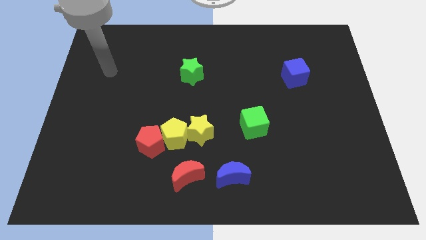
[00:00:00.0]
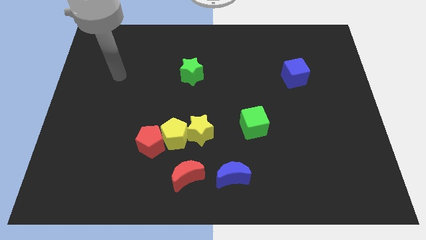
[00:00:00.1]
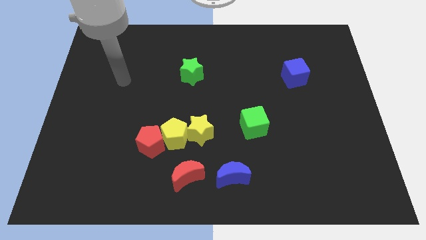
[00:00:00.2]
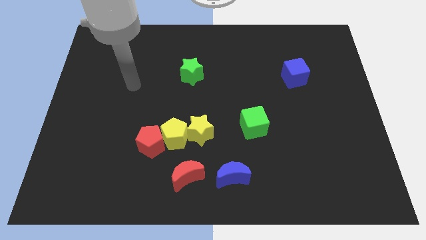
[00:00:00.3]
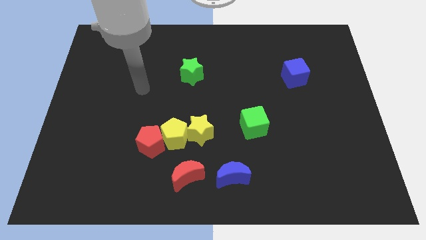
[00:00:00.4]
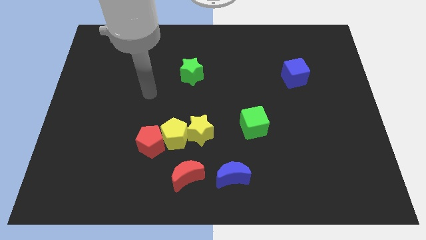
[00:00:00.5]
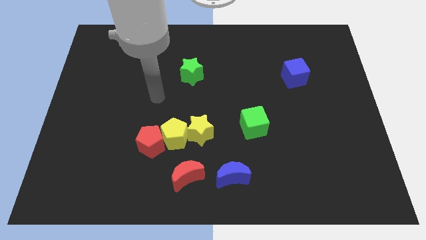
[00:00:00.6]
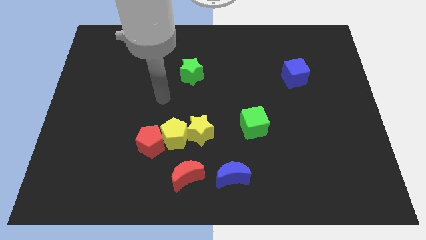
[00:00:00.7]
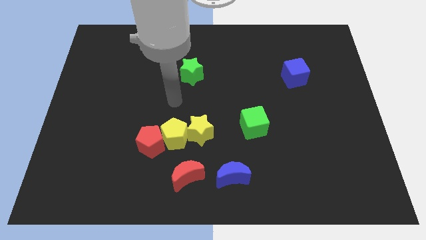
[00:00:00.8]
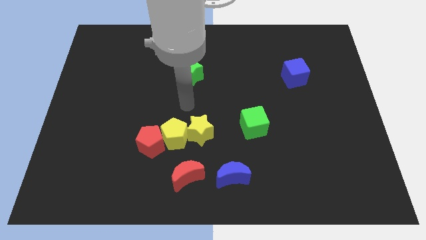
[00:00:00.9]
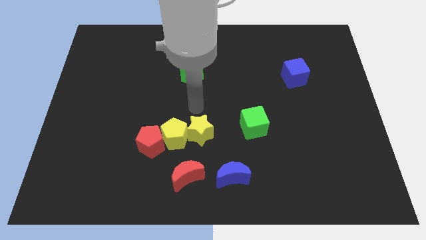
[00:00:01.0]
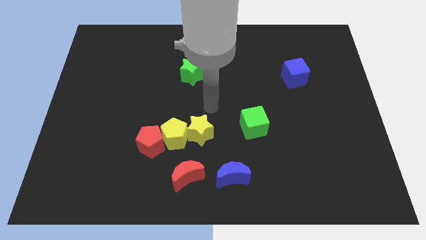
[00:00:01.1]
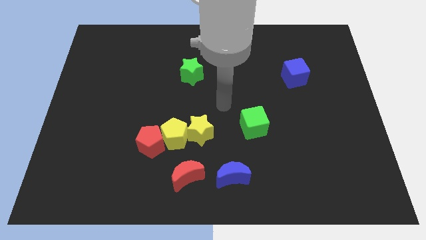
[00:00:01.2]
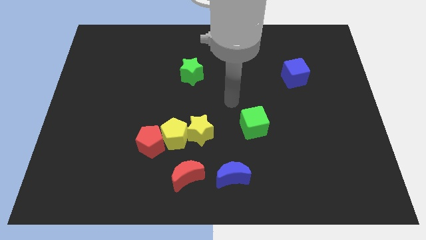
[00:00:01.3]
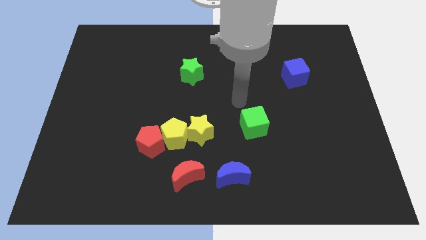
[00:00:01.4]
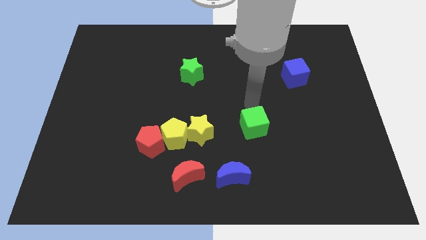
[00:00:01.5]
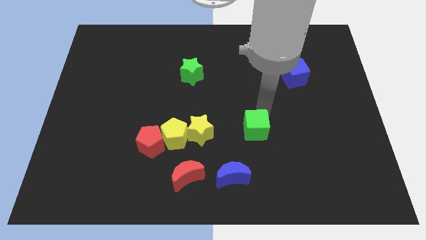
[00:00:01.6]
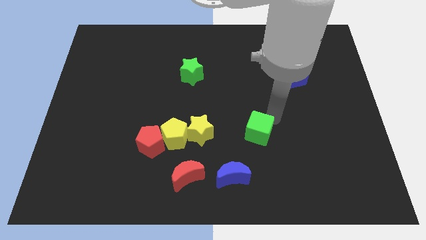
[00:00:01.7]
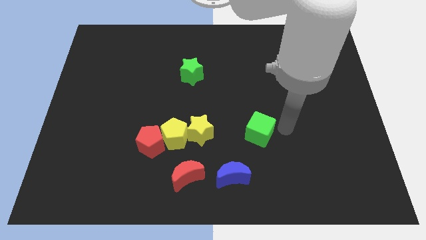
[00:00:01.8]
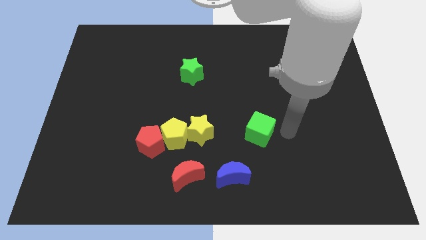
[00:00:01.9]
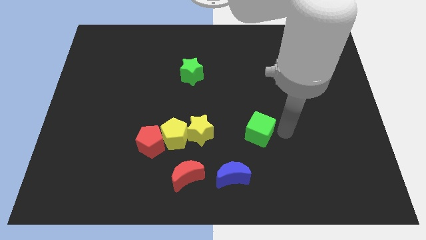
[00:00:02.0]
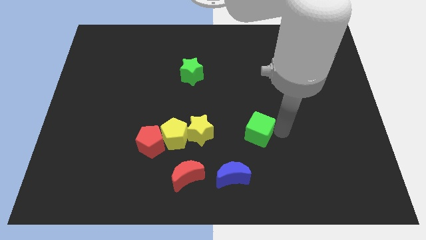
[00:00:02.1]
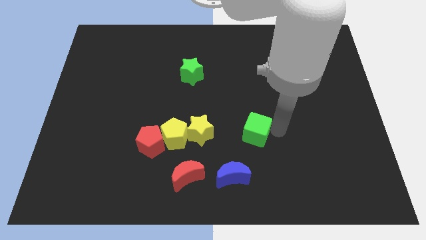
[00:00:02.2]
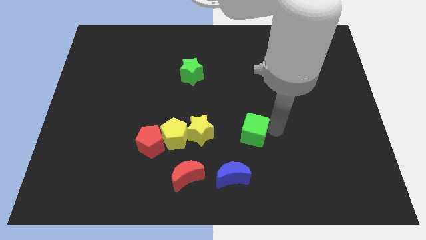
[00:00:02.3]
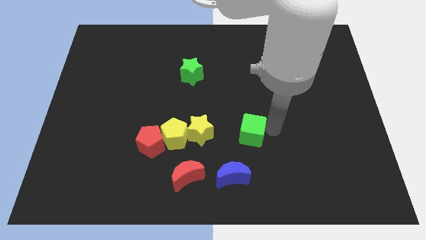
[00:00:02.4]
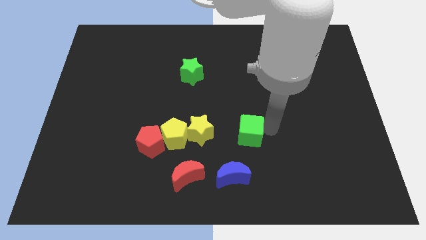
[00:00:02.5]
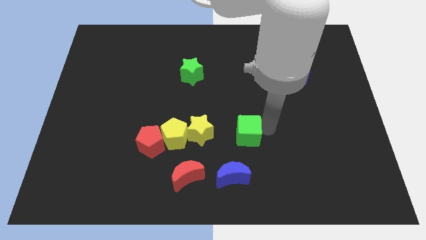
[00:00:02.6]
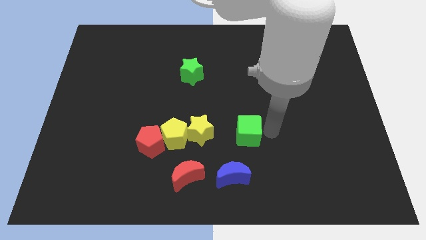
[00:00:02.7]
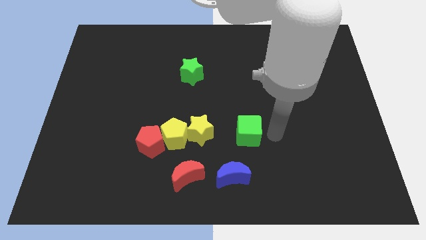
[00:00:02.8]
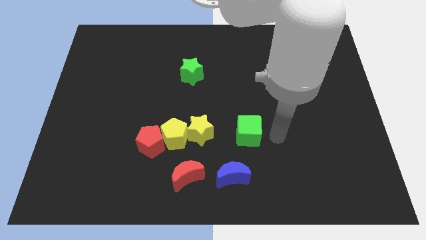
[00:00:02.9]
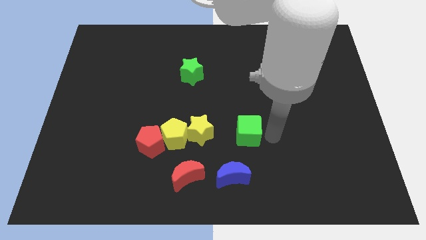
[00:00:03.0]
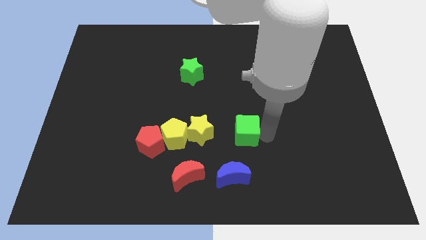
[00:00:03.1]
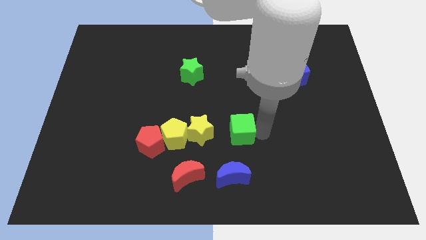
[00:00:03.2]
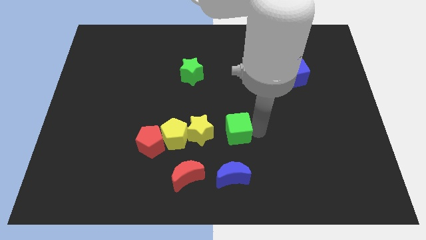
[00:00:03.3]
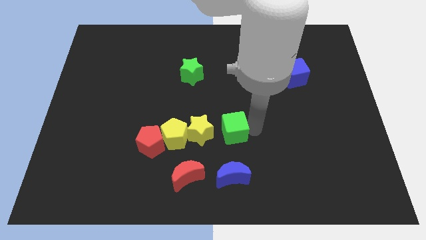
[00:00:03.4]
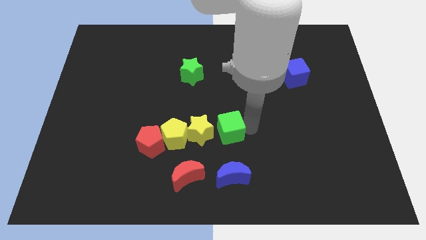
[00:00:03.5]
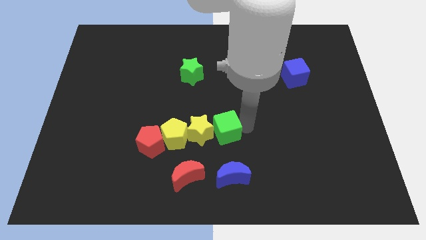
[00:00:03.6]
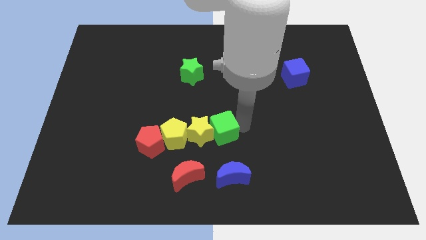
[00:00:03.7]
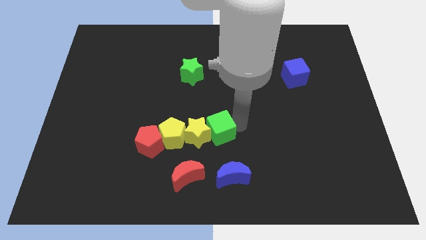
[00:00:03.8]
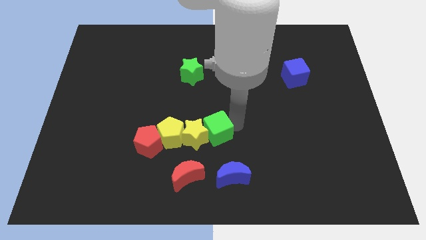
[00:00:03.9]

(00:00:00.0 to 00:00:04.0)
move the green cube right of the red pentagon

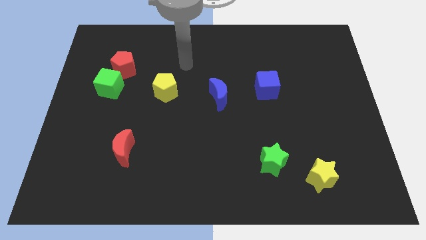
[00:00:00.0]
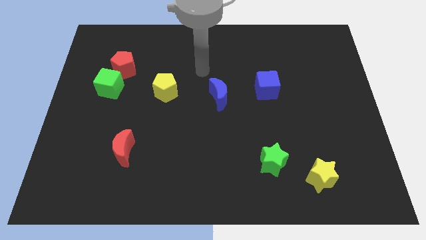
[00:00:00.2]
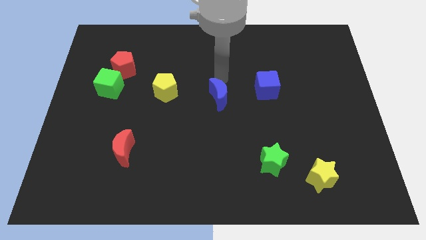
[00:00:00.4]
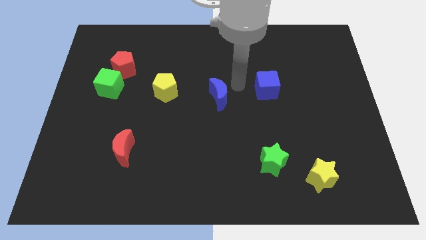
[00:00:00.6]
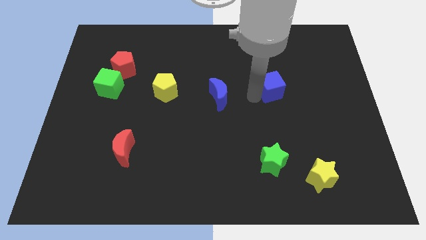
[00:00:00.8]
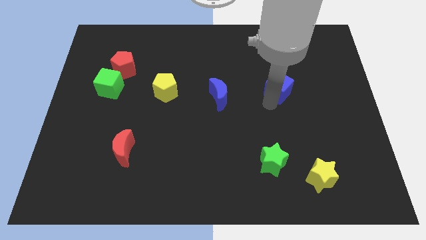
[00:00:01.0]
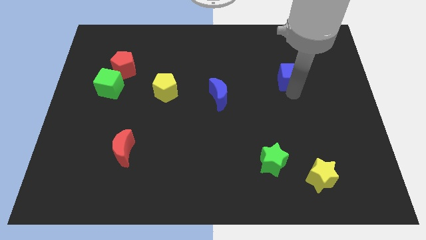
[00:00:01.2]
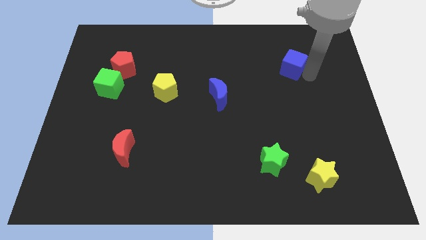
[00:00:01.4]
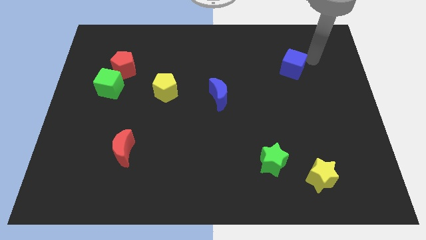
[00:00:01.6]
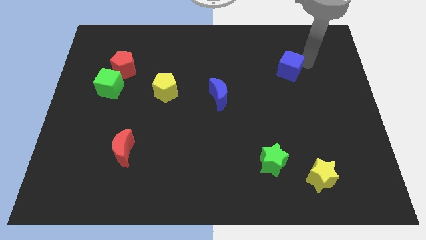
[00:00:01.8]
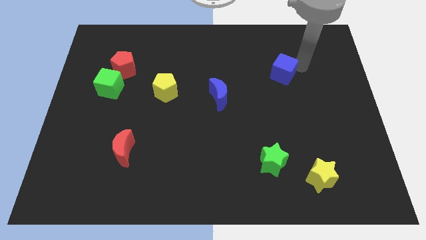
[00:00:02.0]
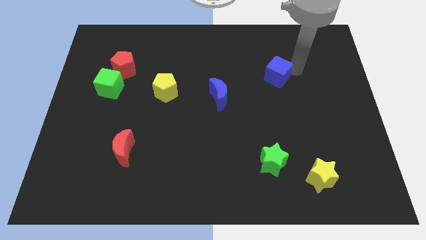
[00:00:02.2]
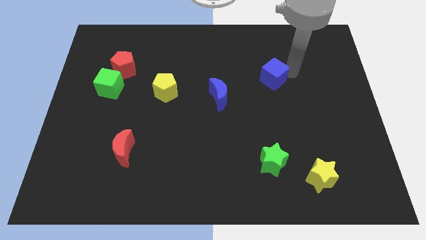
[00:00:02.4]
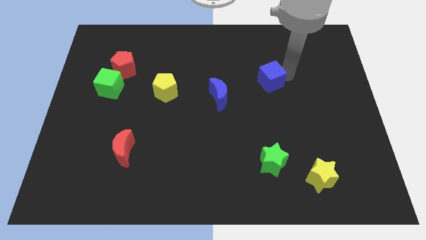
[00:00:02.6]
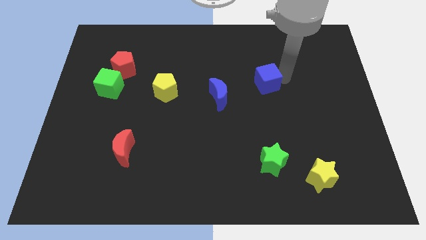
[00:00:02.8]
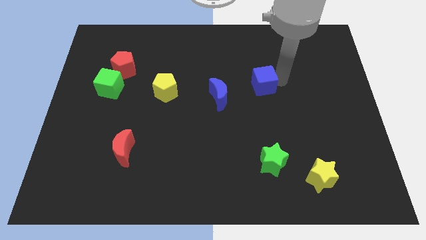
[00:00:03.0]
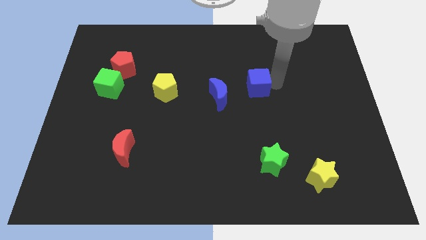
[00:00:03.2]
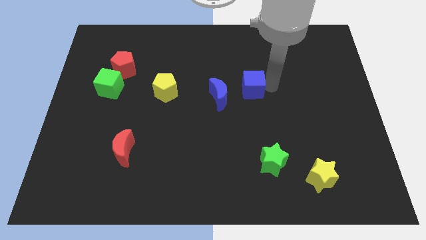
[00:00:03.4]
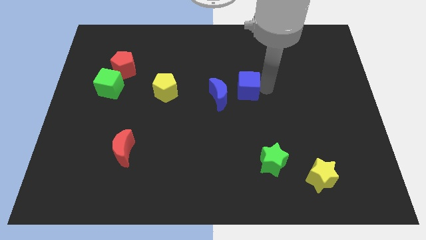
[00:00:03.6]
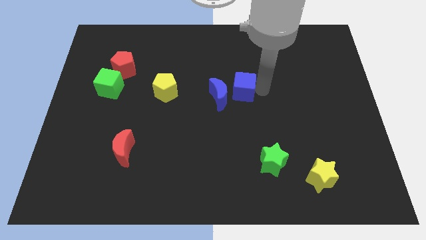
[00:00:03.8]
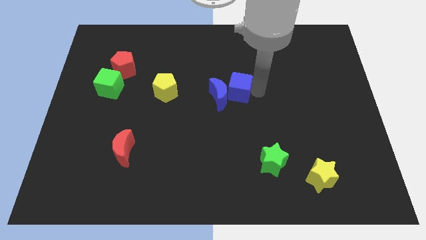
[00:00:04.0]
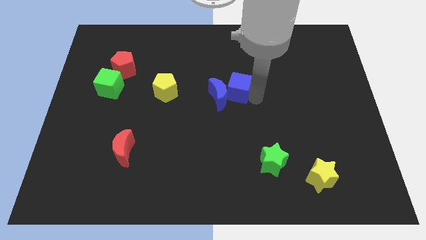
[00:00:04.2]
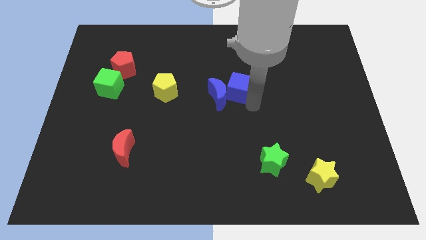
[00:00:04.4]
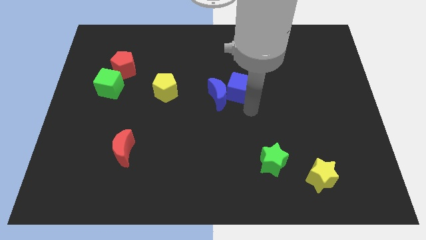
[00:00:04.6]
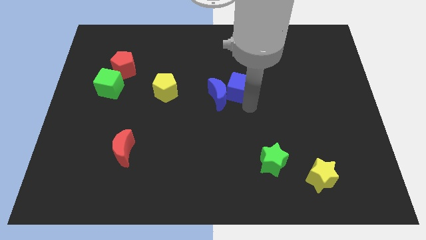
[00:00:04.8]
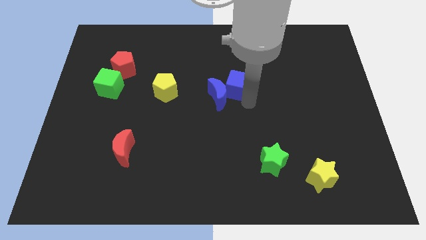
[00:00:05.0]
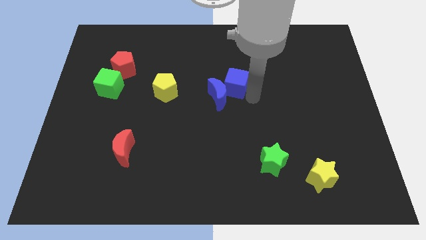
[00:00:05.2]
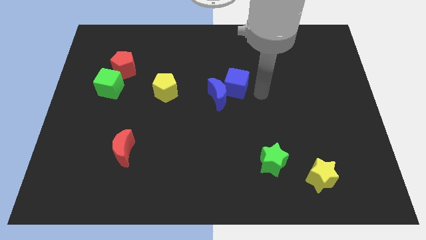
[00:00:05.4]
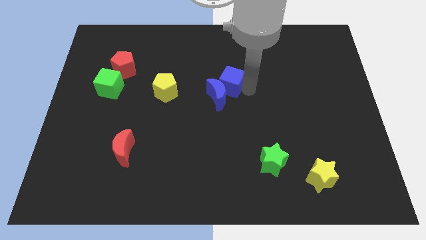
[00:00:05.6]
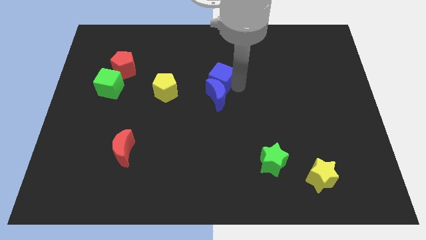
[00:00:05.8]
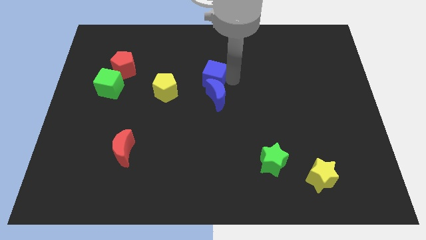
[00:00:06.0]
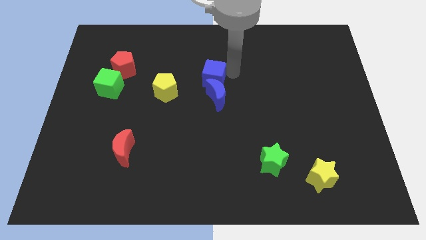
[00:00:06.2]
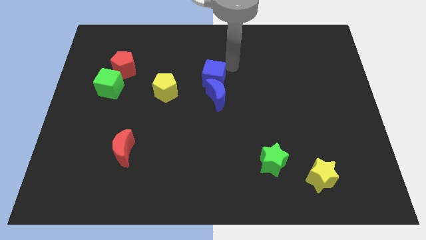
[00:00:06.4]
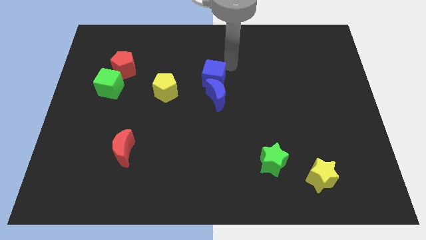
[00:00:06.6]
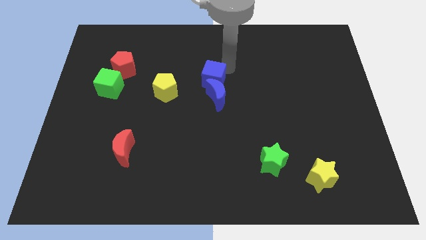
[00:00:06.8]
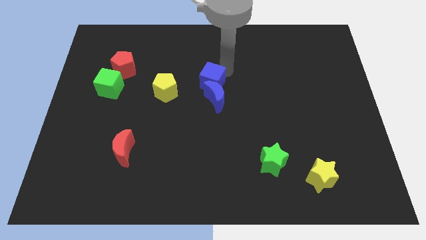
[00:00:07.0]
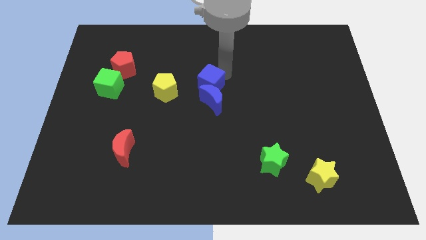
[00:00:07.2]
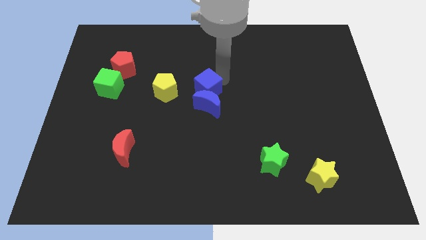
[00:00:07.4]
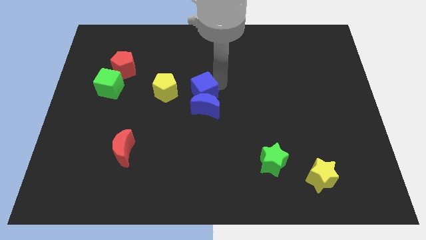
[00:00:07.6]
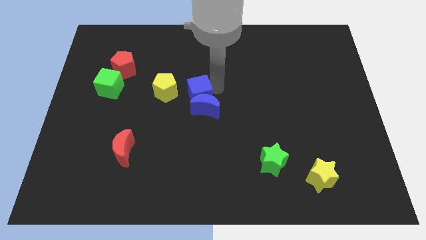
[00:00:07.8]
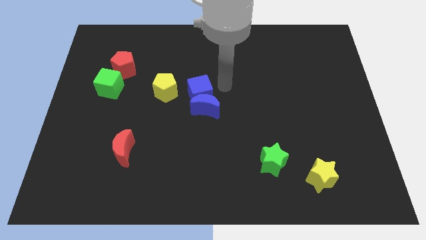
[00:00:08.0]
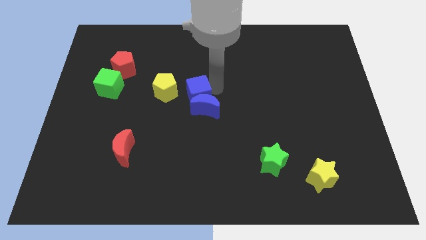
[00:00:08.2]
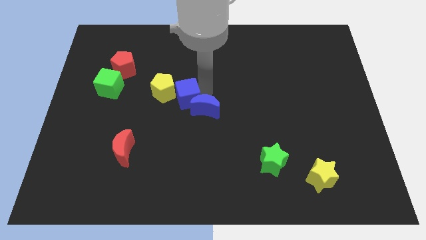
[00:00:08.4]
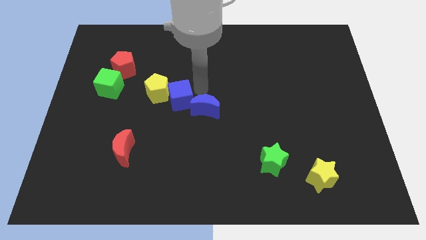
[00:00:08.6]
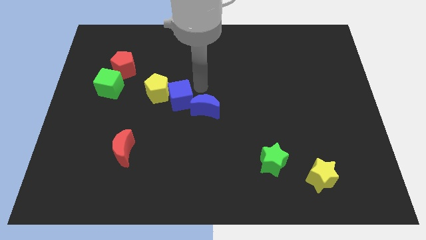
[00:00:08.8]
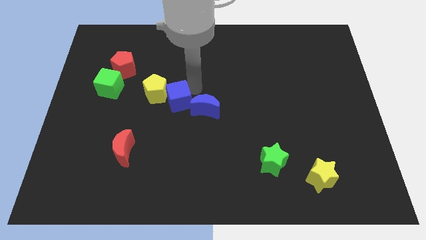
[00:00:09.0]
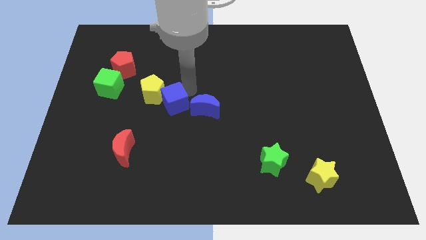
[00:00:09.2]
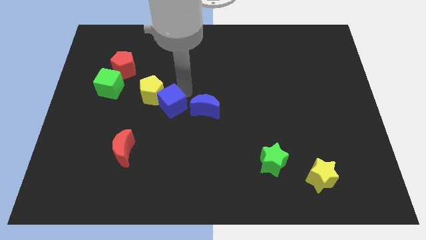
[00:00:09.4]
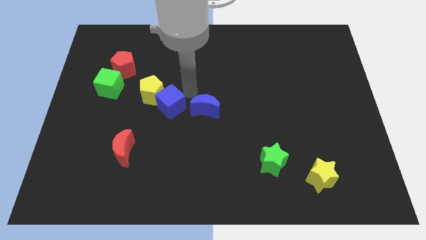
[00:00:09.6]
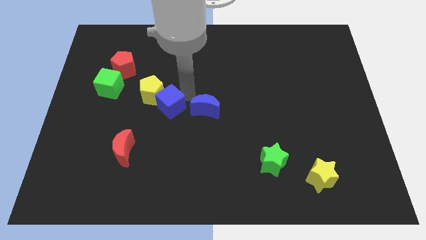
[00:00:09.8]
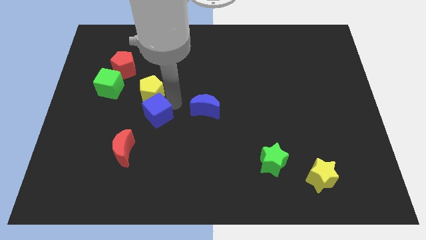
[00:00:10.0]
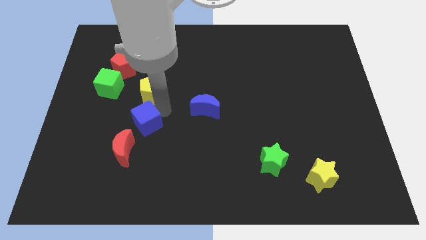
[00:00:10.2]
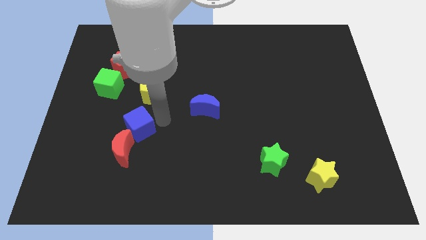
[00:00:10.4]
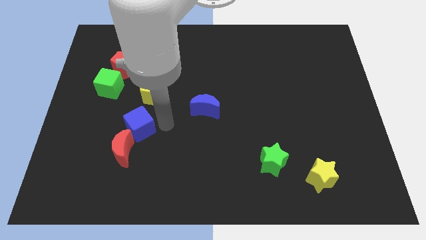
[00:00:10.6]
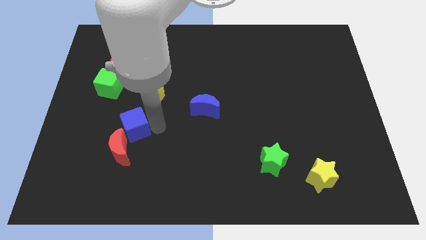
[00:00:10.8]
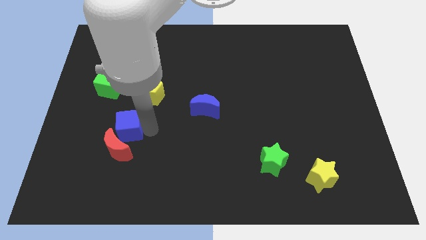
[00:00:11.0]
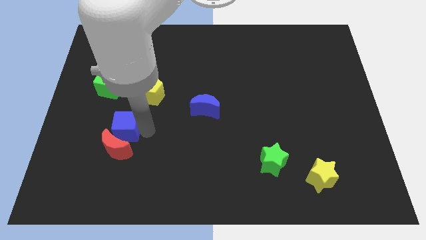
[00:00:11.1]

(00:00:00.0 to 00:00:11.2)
slide the blue cube diagonally up and to the left of the red moon
